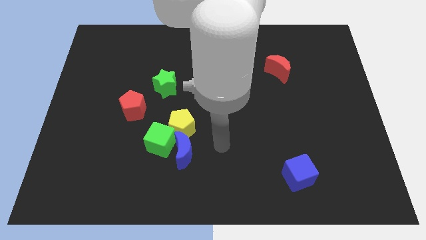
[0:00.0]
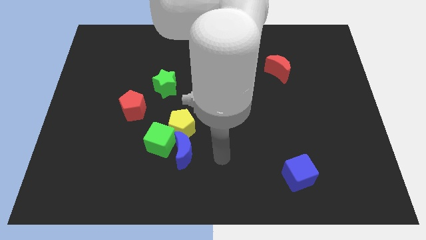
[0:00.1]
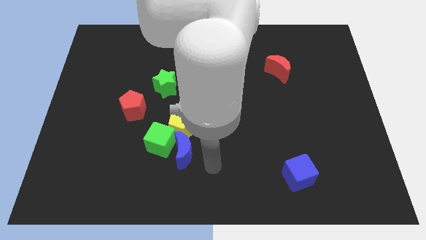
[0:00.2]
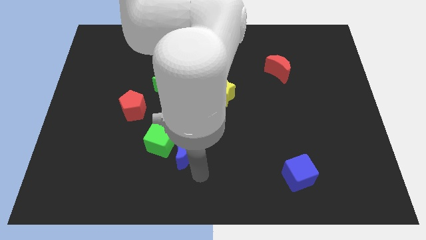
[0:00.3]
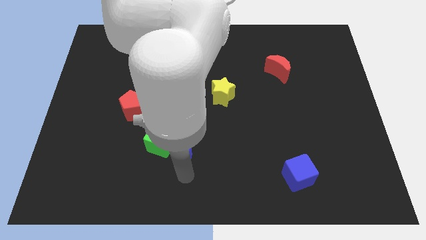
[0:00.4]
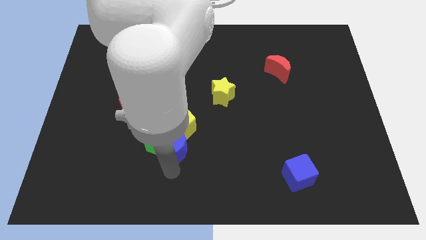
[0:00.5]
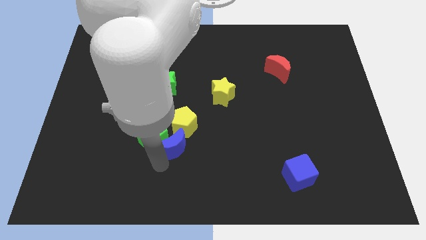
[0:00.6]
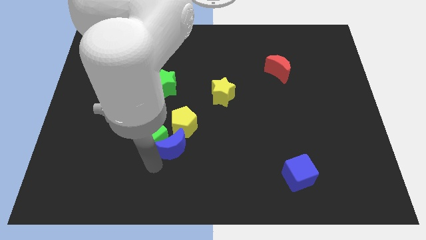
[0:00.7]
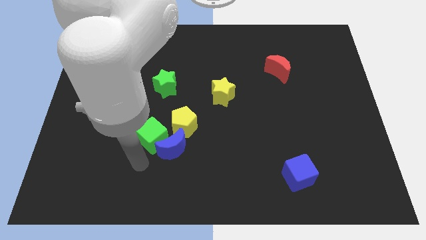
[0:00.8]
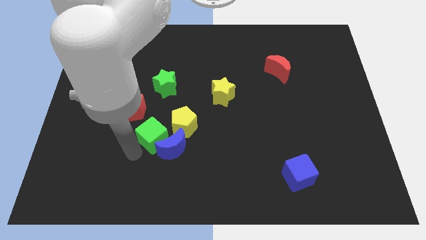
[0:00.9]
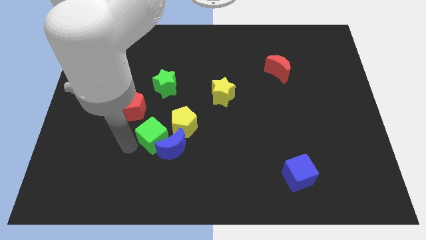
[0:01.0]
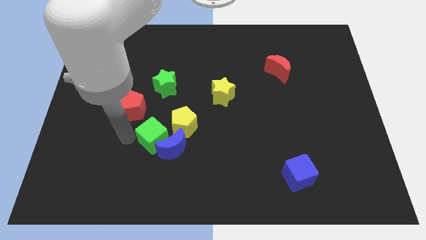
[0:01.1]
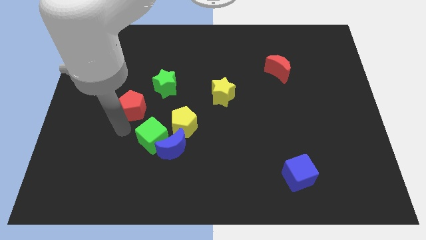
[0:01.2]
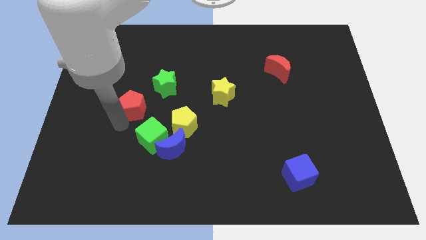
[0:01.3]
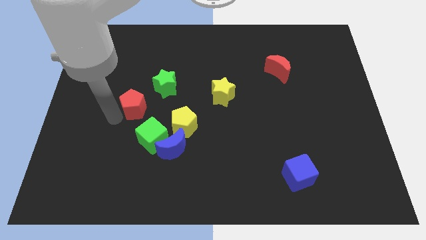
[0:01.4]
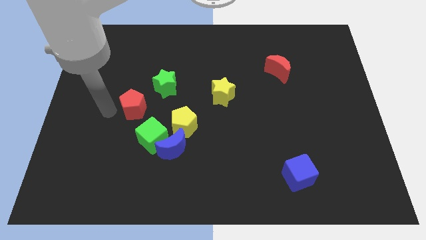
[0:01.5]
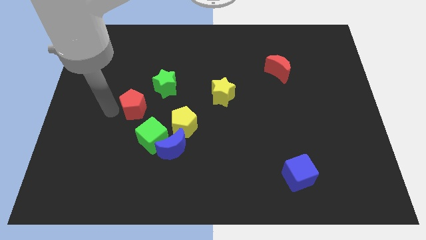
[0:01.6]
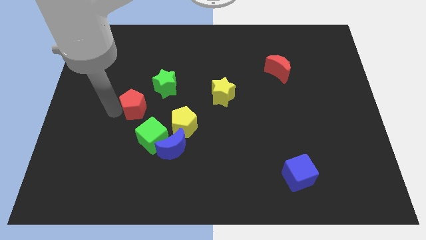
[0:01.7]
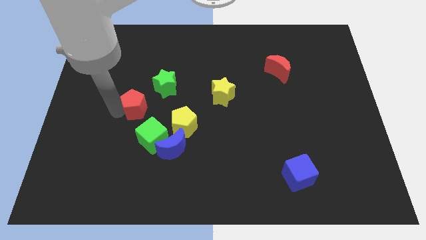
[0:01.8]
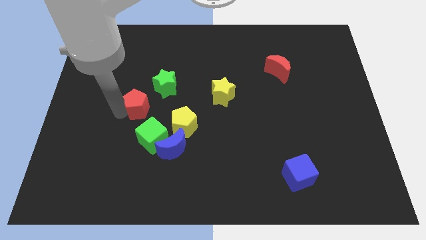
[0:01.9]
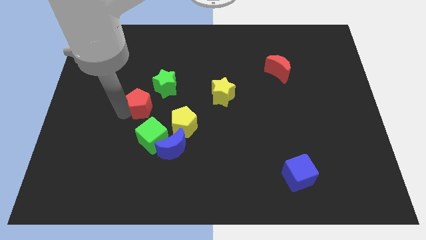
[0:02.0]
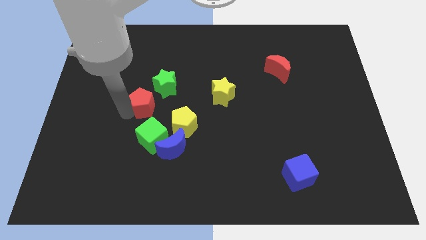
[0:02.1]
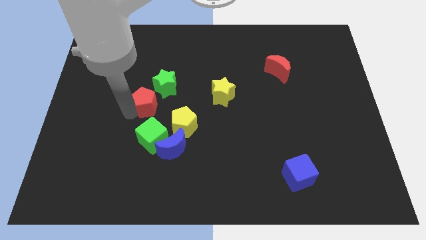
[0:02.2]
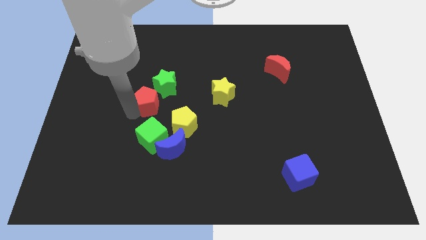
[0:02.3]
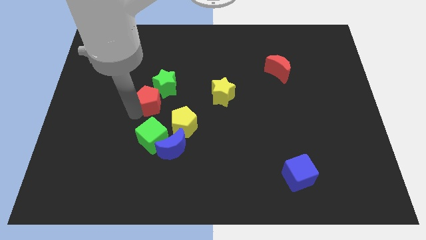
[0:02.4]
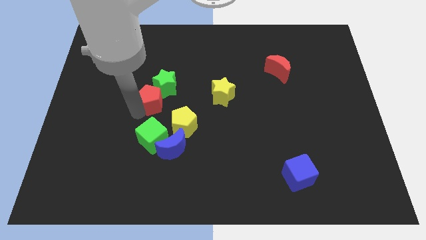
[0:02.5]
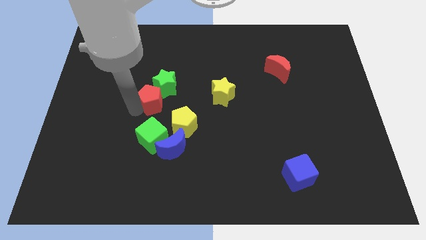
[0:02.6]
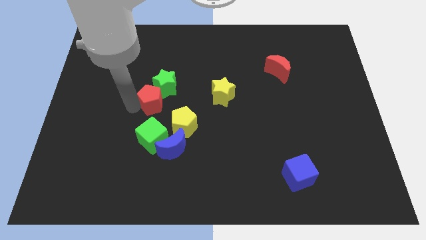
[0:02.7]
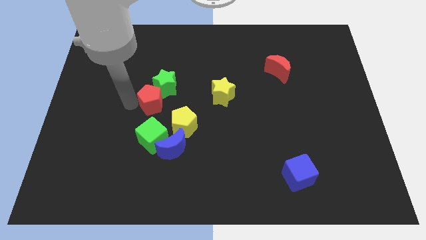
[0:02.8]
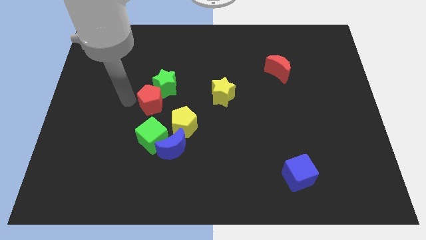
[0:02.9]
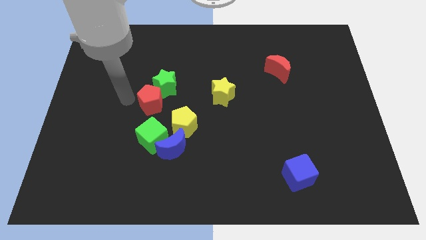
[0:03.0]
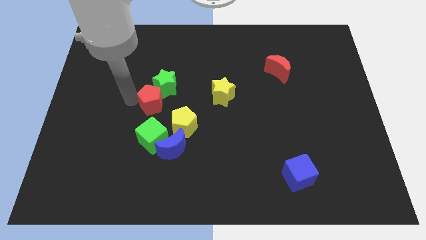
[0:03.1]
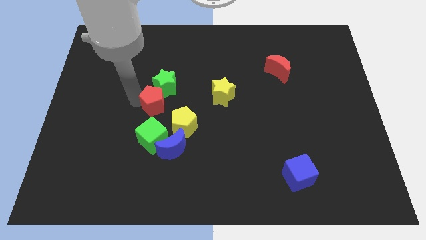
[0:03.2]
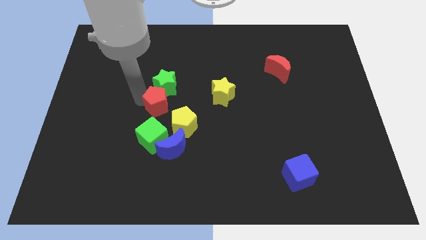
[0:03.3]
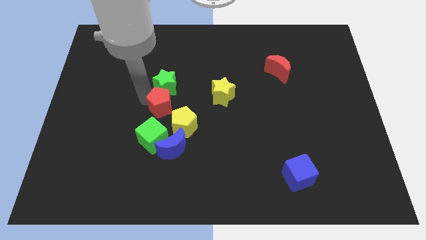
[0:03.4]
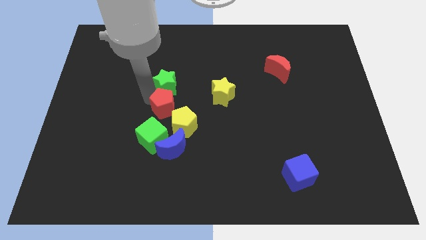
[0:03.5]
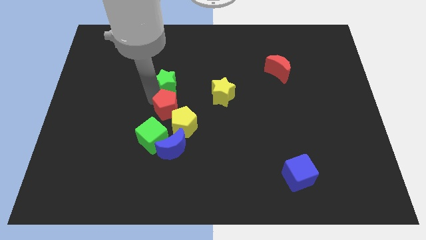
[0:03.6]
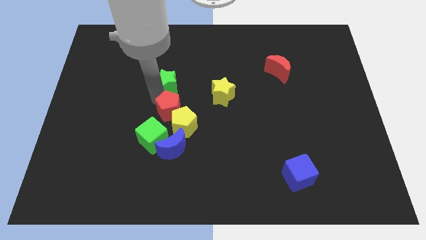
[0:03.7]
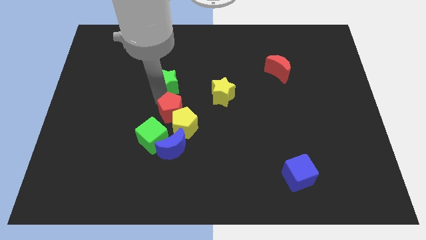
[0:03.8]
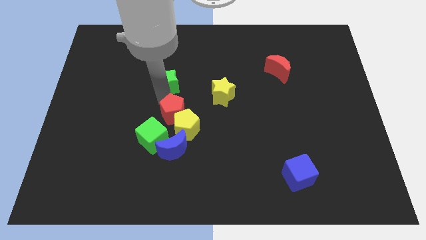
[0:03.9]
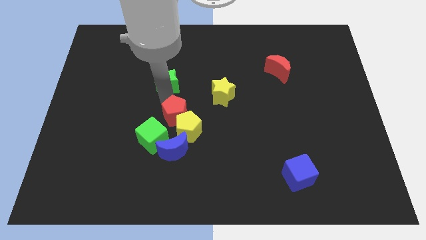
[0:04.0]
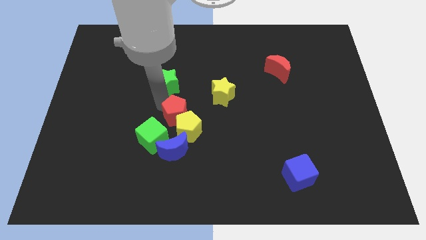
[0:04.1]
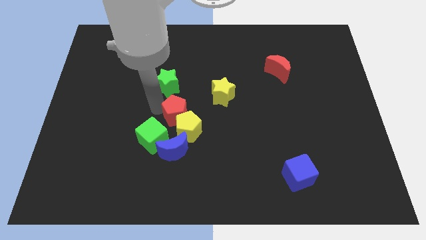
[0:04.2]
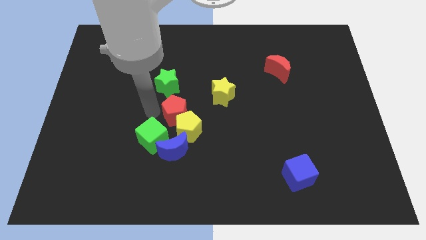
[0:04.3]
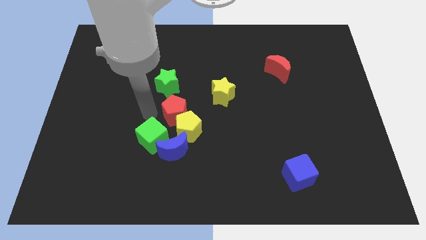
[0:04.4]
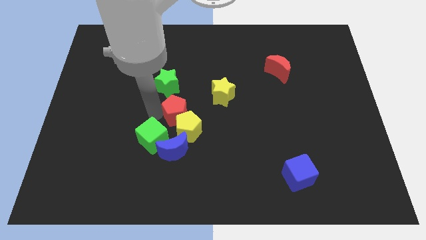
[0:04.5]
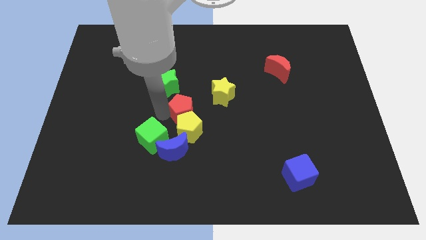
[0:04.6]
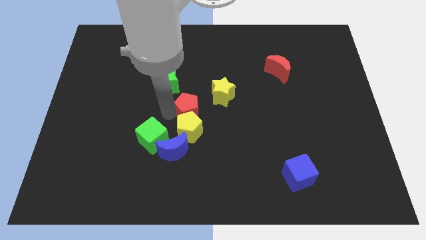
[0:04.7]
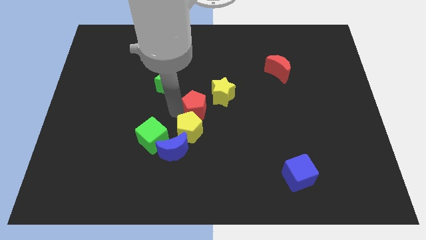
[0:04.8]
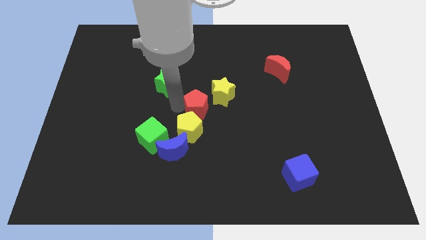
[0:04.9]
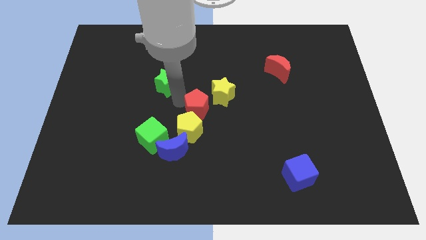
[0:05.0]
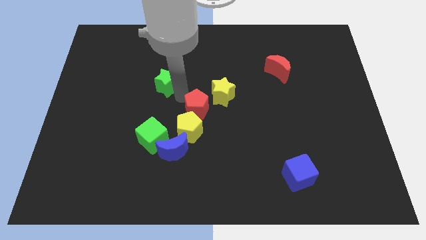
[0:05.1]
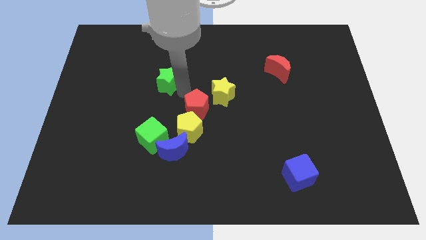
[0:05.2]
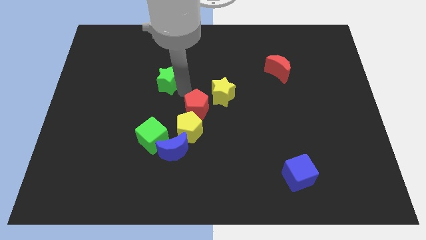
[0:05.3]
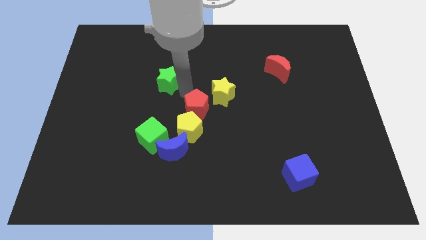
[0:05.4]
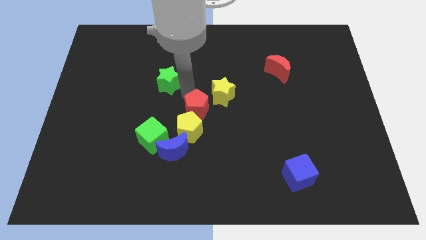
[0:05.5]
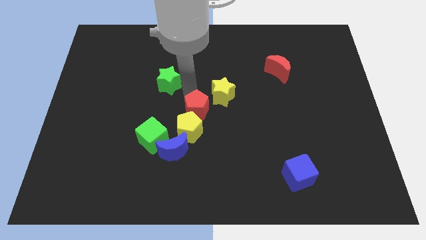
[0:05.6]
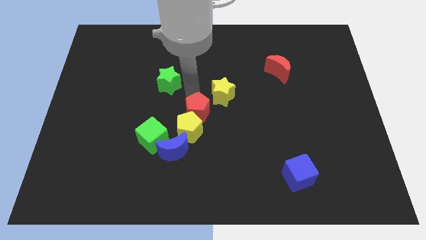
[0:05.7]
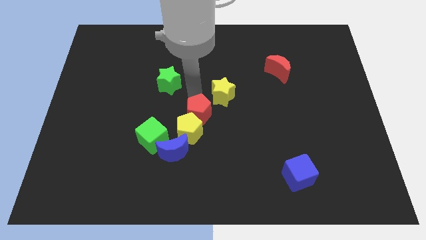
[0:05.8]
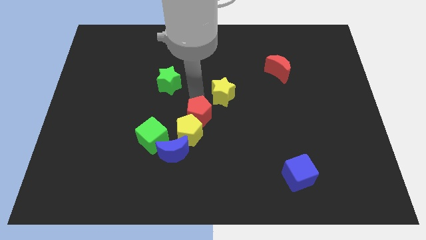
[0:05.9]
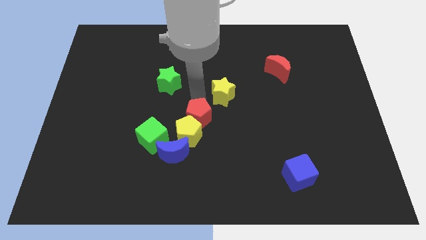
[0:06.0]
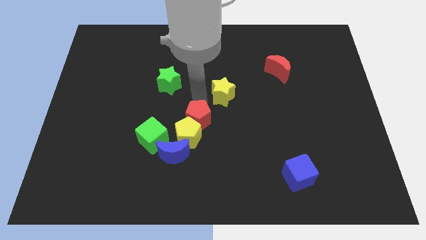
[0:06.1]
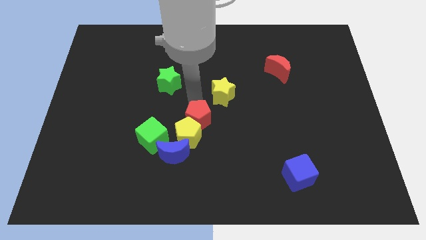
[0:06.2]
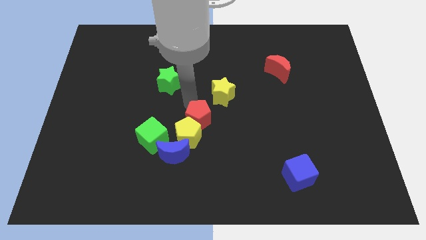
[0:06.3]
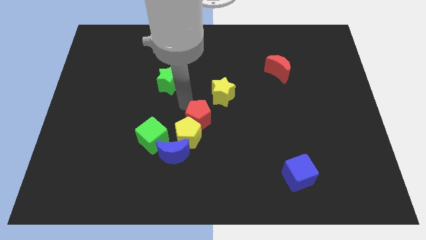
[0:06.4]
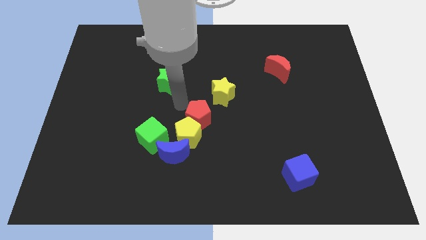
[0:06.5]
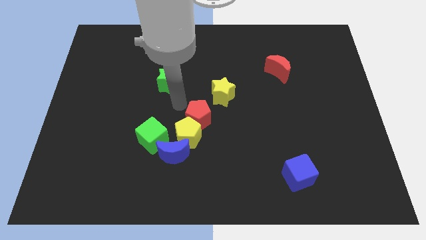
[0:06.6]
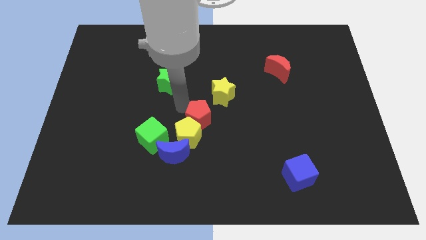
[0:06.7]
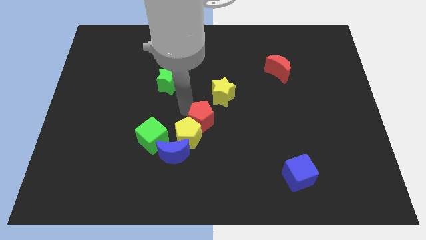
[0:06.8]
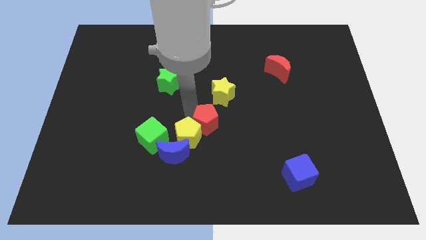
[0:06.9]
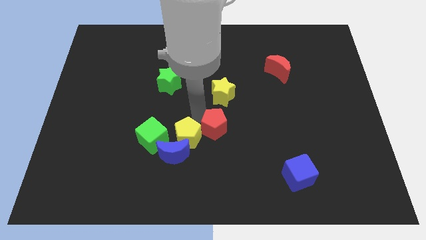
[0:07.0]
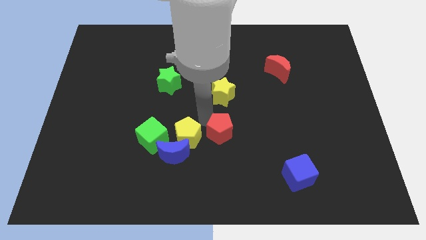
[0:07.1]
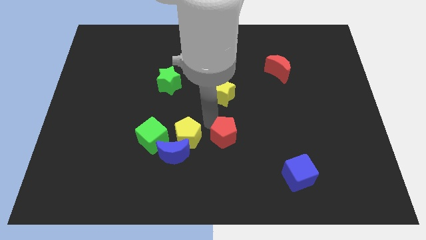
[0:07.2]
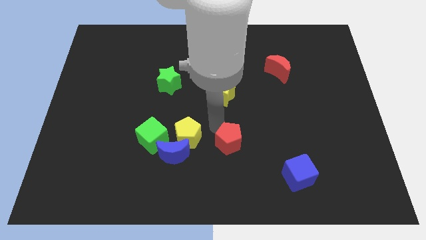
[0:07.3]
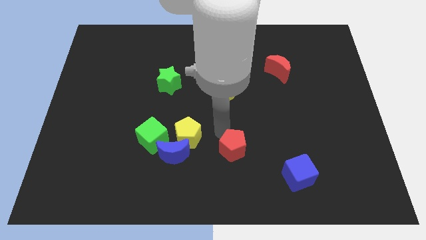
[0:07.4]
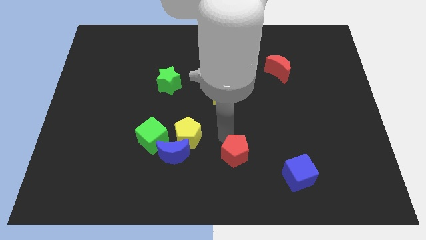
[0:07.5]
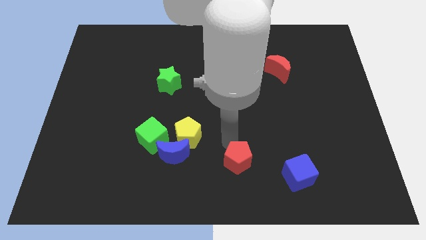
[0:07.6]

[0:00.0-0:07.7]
push the red pentagon to the left side of the blue cube

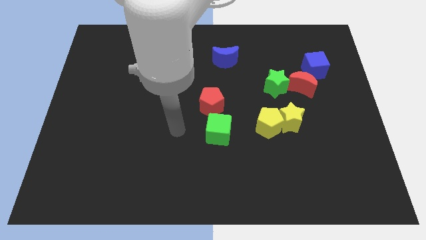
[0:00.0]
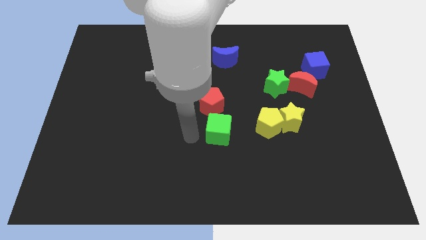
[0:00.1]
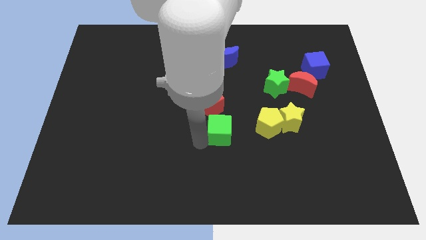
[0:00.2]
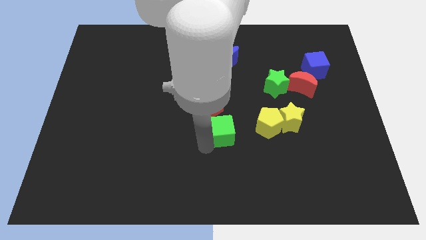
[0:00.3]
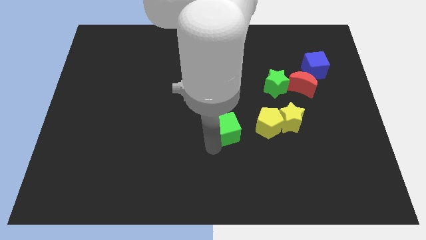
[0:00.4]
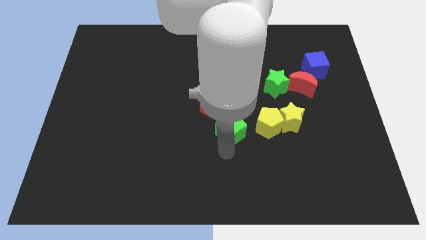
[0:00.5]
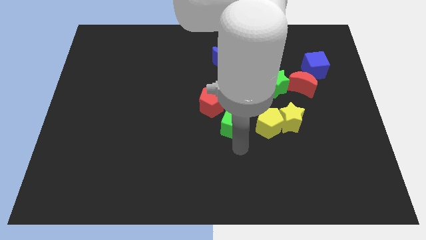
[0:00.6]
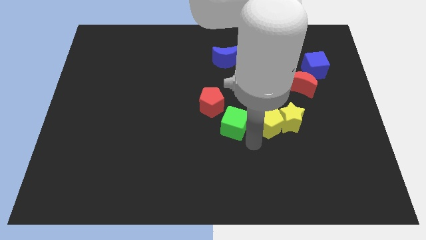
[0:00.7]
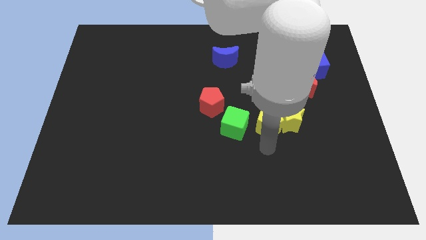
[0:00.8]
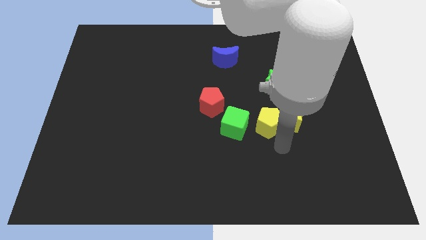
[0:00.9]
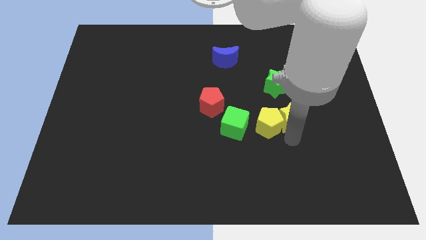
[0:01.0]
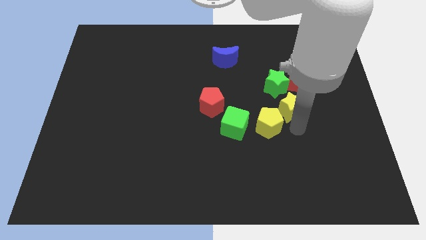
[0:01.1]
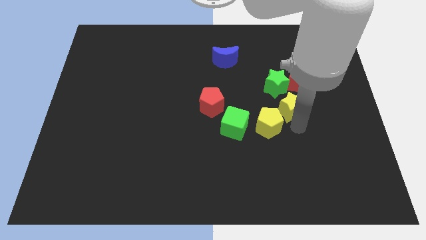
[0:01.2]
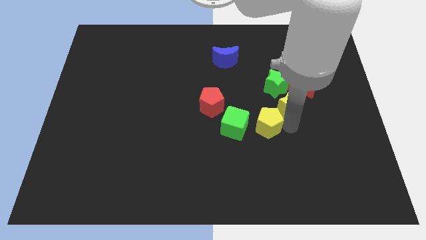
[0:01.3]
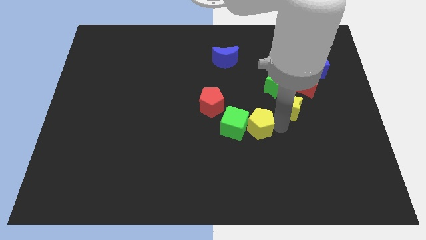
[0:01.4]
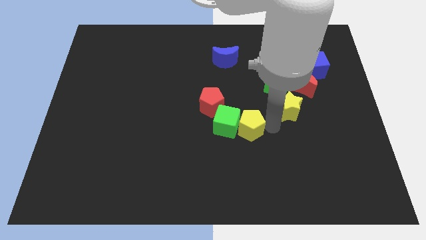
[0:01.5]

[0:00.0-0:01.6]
slide the yellow pentagon diagonally down and to the right of the red pentagon
